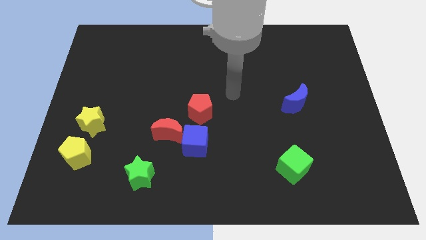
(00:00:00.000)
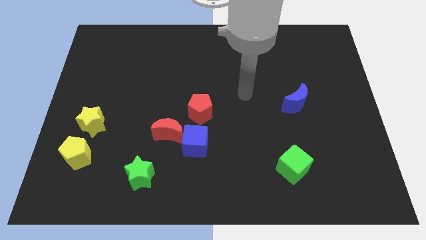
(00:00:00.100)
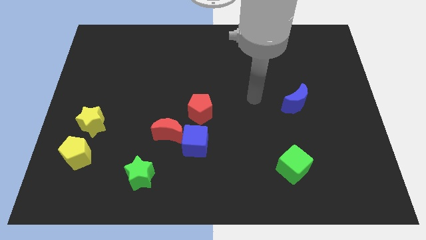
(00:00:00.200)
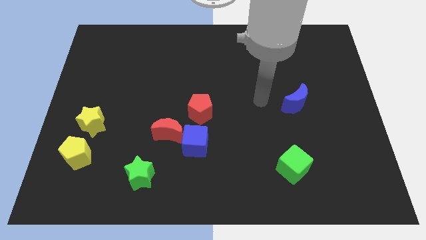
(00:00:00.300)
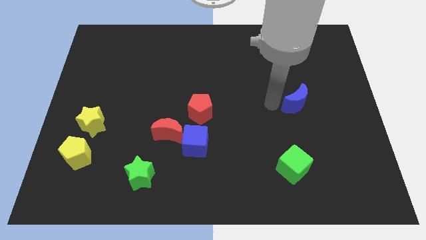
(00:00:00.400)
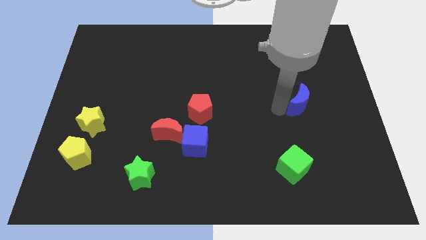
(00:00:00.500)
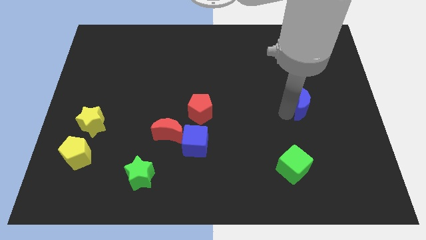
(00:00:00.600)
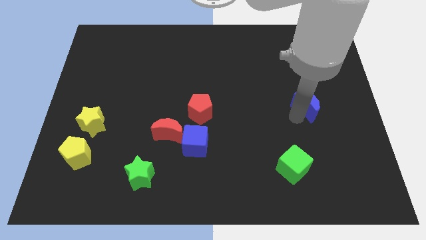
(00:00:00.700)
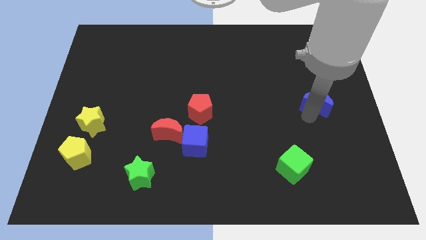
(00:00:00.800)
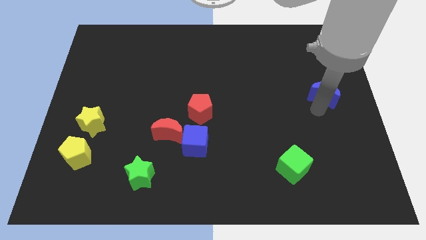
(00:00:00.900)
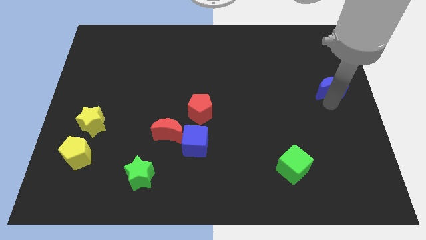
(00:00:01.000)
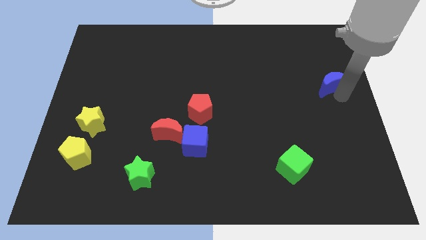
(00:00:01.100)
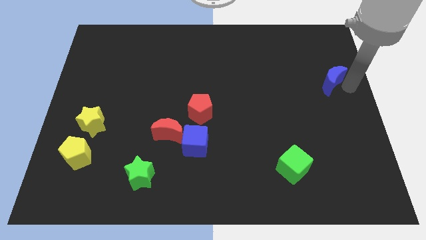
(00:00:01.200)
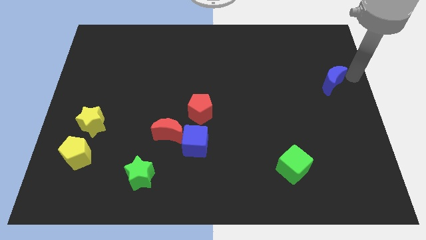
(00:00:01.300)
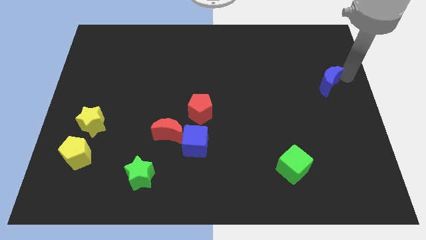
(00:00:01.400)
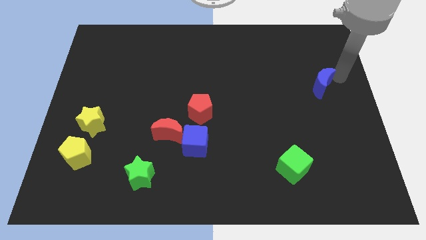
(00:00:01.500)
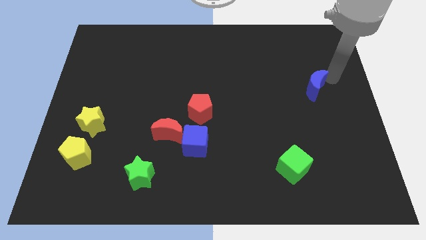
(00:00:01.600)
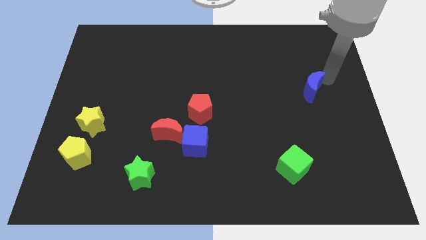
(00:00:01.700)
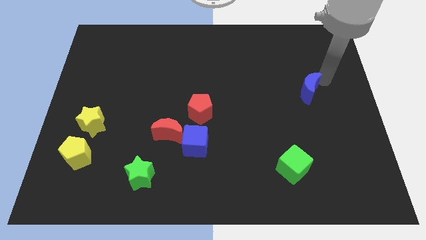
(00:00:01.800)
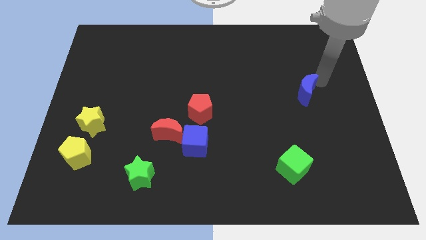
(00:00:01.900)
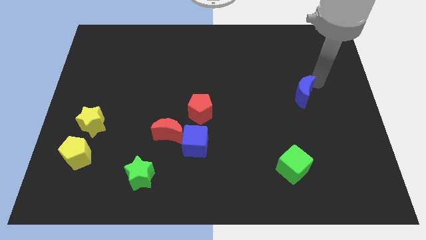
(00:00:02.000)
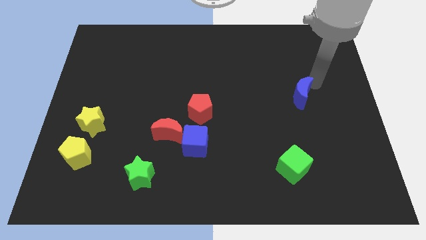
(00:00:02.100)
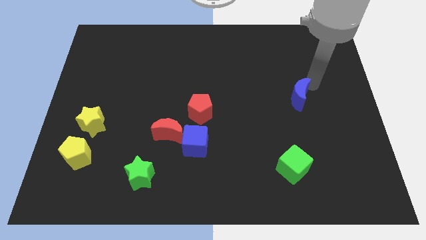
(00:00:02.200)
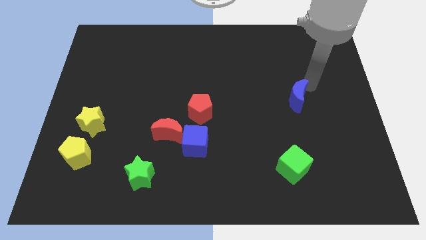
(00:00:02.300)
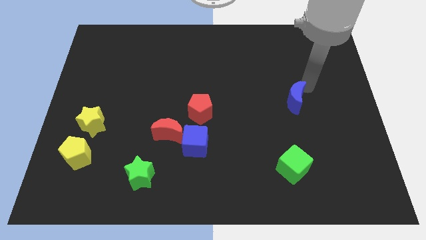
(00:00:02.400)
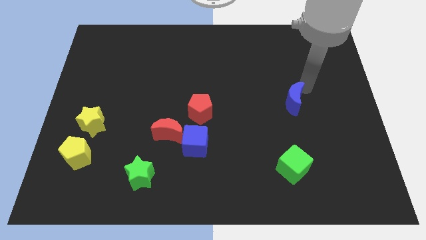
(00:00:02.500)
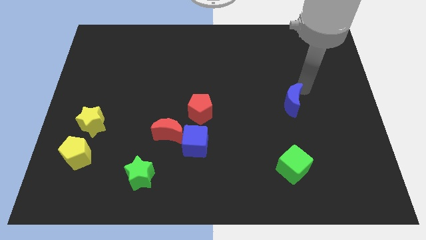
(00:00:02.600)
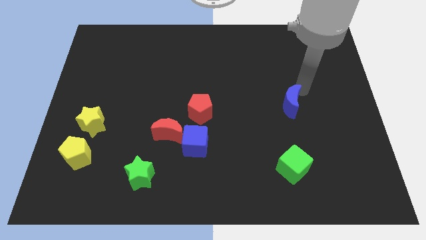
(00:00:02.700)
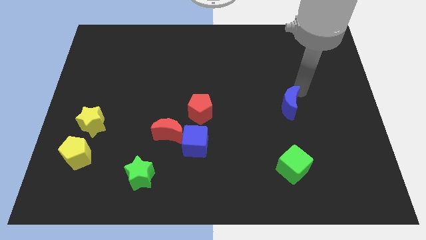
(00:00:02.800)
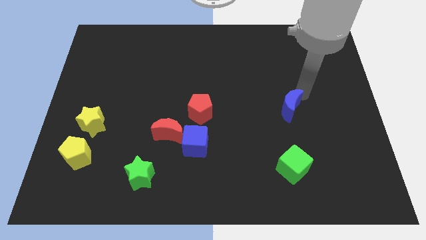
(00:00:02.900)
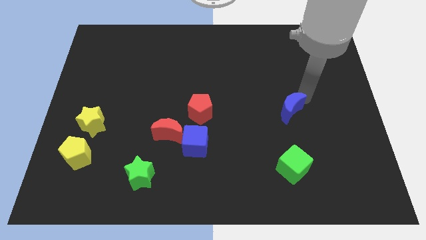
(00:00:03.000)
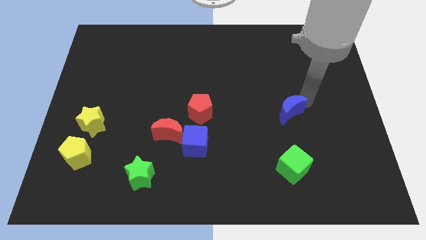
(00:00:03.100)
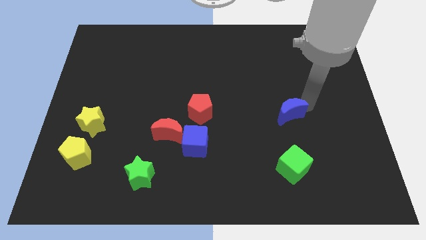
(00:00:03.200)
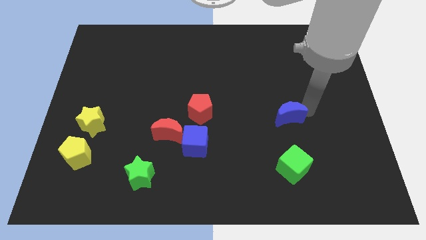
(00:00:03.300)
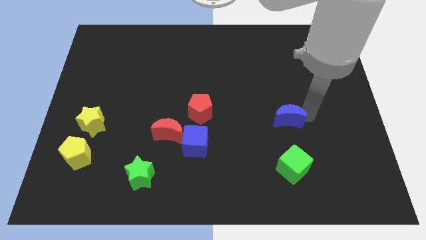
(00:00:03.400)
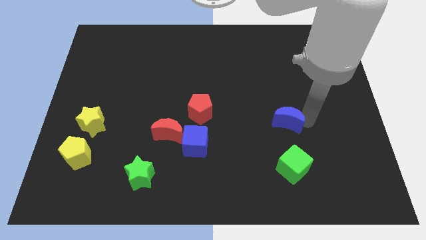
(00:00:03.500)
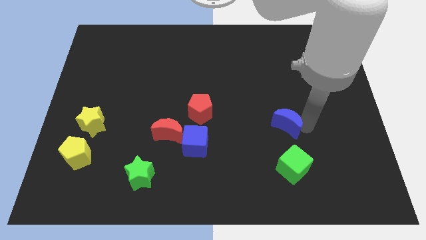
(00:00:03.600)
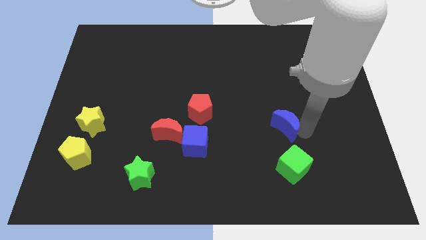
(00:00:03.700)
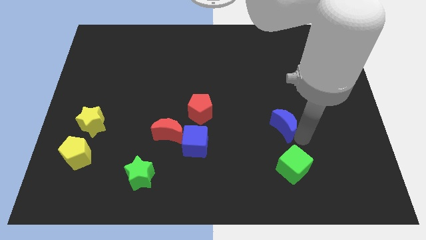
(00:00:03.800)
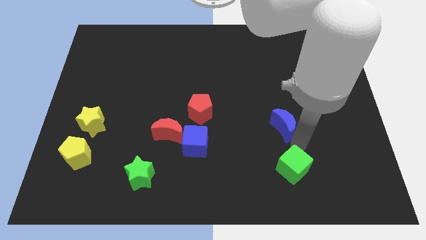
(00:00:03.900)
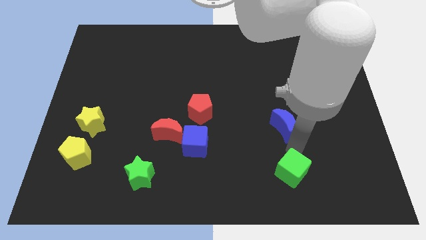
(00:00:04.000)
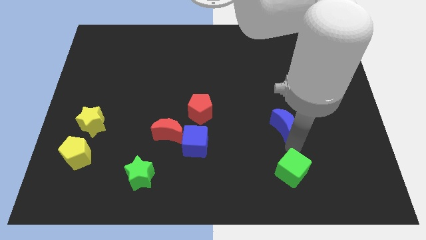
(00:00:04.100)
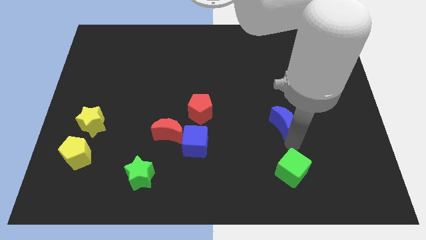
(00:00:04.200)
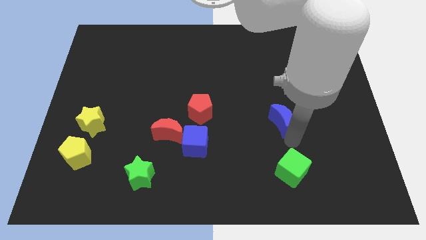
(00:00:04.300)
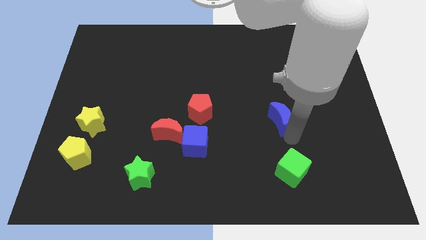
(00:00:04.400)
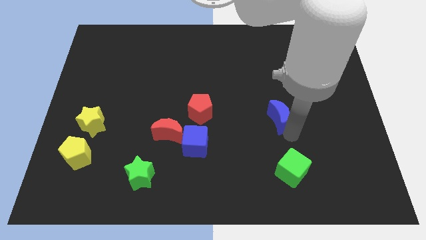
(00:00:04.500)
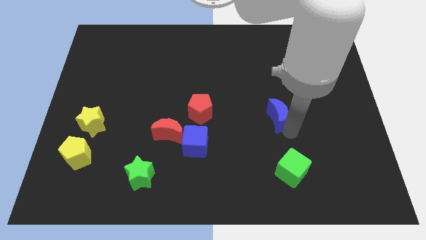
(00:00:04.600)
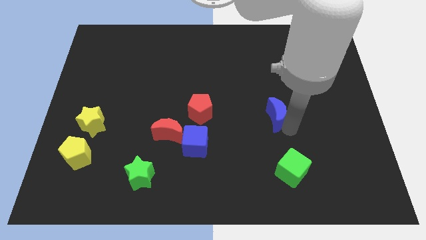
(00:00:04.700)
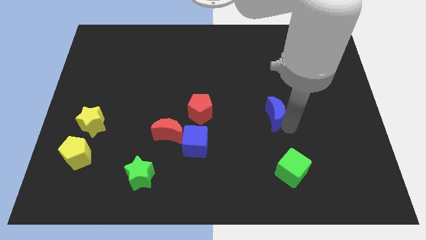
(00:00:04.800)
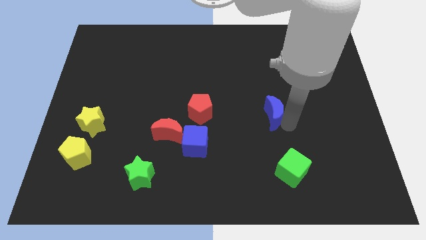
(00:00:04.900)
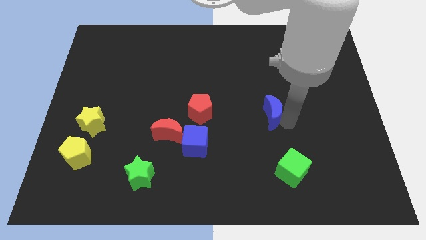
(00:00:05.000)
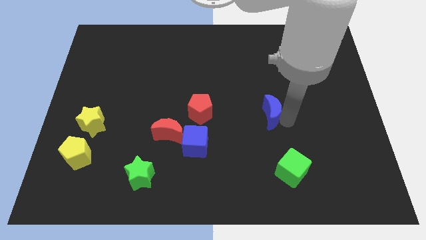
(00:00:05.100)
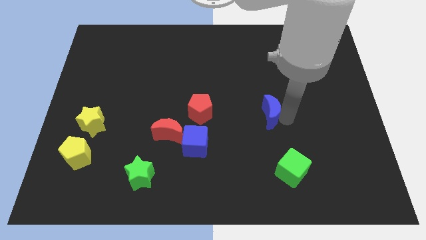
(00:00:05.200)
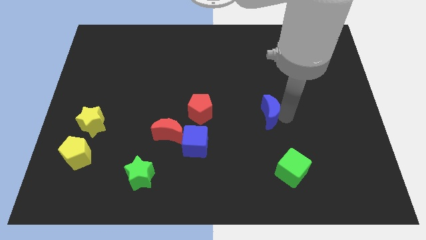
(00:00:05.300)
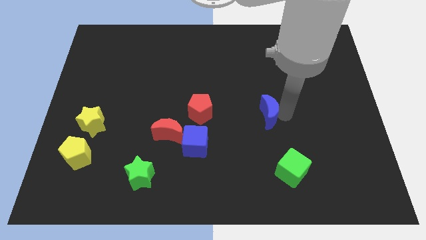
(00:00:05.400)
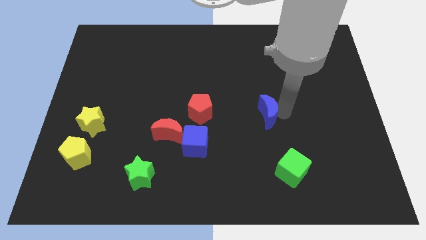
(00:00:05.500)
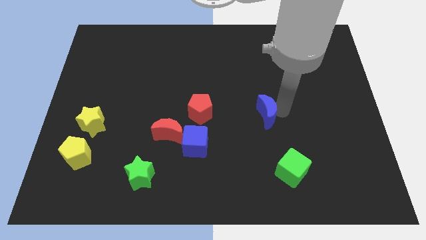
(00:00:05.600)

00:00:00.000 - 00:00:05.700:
push the blue moon left a bit

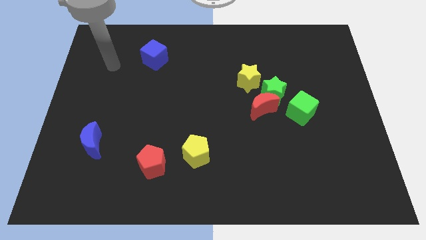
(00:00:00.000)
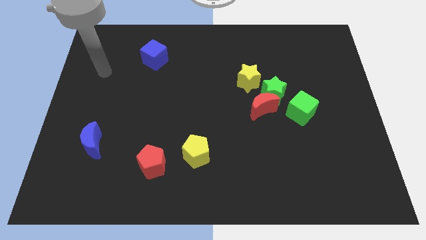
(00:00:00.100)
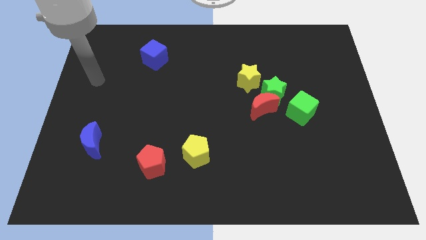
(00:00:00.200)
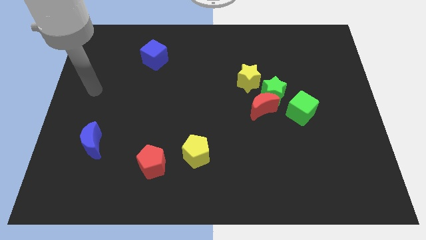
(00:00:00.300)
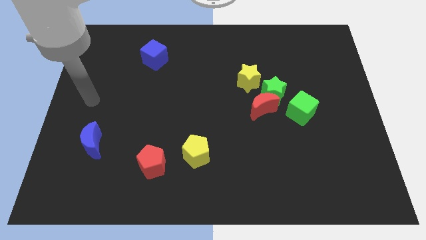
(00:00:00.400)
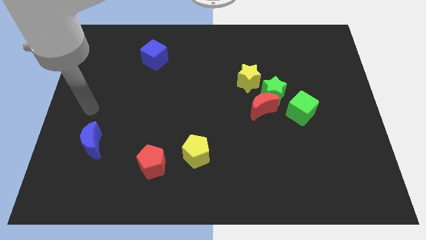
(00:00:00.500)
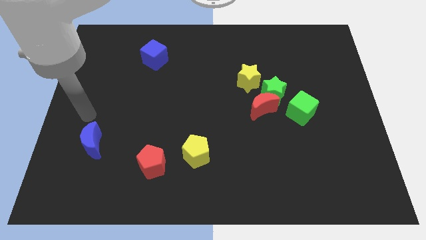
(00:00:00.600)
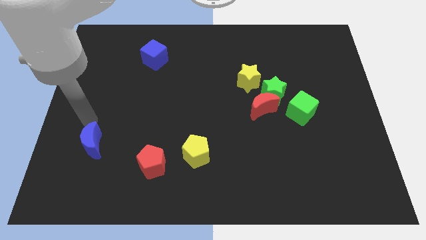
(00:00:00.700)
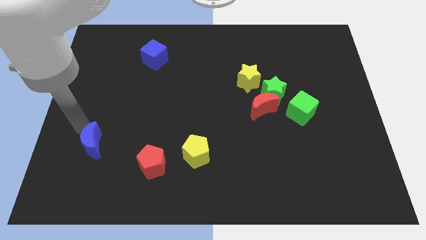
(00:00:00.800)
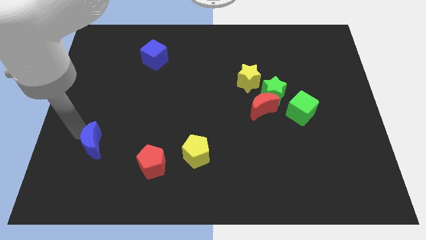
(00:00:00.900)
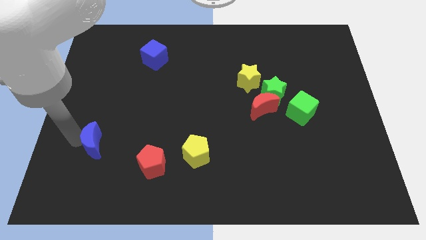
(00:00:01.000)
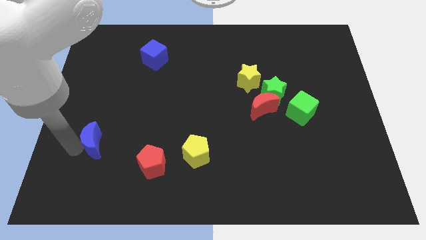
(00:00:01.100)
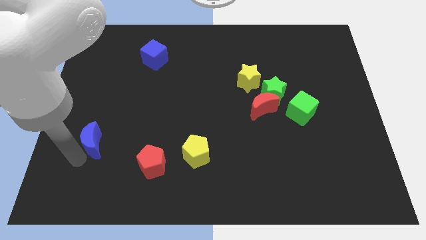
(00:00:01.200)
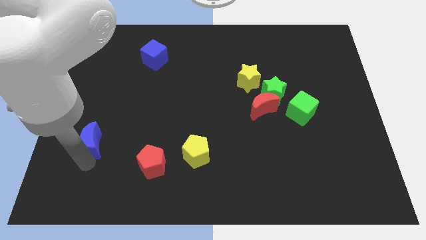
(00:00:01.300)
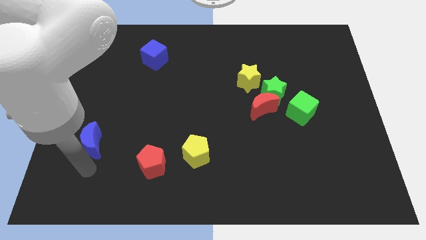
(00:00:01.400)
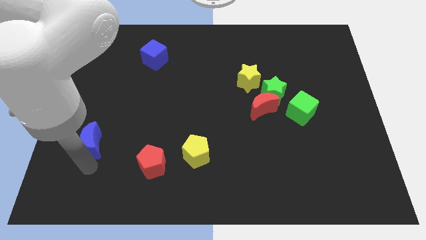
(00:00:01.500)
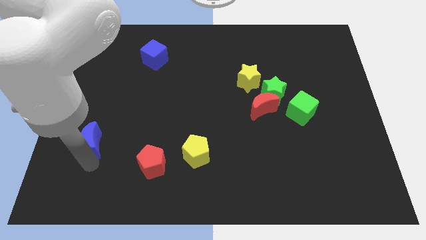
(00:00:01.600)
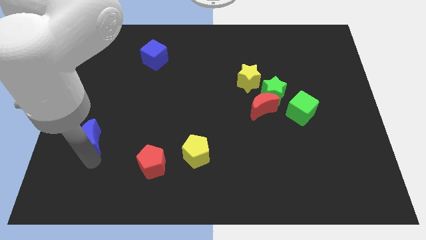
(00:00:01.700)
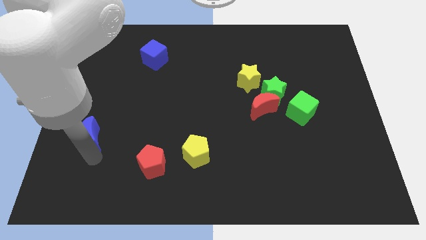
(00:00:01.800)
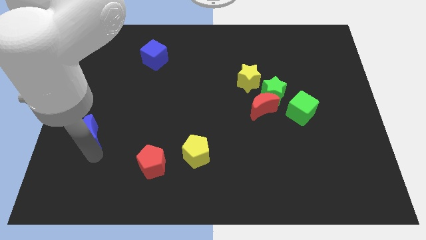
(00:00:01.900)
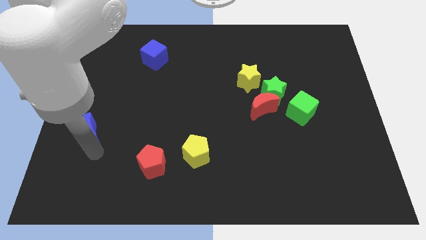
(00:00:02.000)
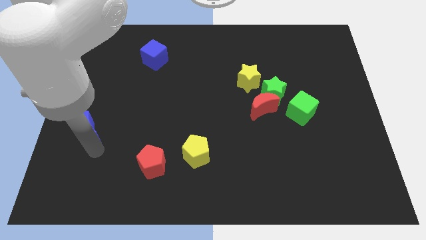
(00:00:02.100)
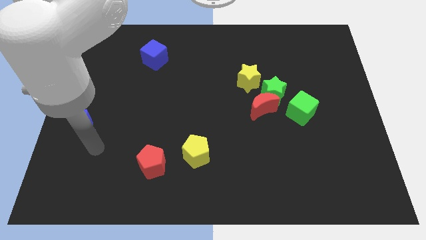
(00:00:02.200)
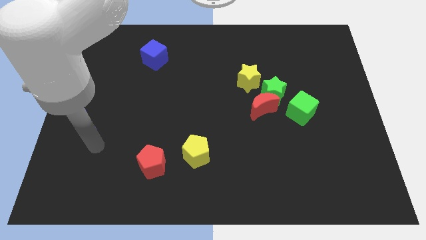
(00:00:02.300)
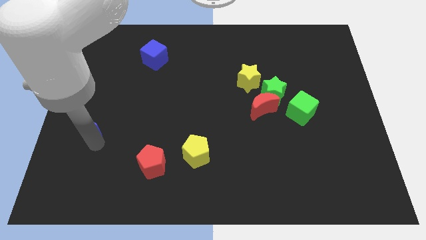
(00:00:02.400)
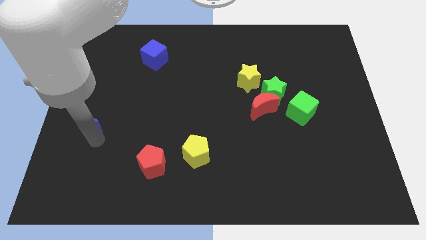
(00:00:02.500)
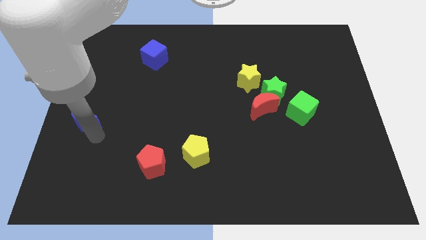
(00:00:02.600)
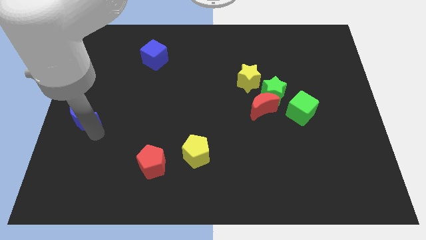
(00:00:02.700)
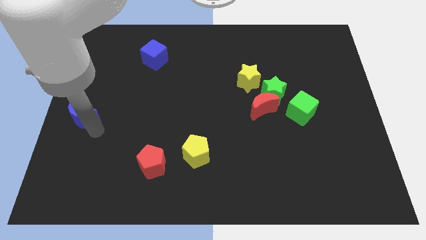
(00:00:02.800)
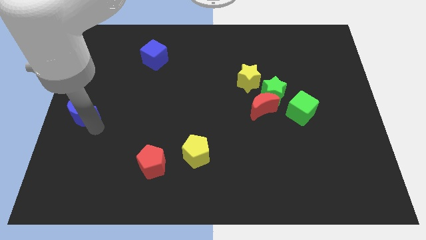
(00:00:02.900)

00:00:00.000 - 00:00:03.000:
push the blue moon a bit up
